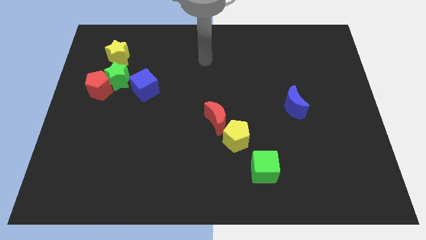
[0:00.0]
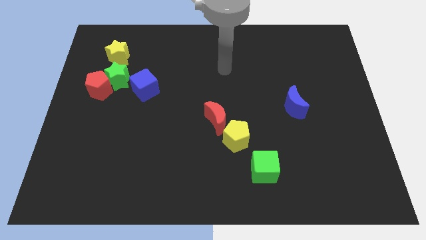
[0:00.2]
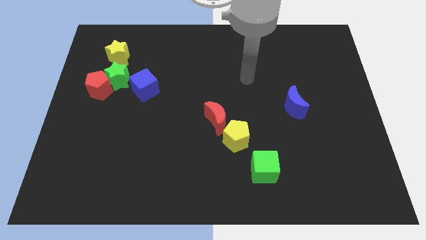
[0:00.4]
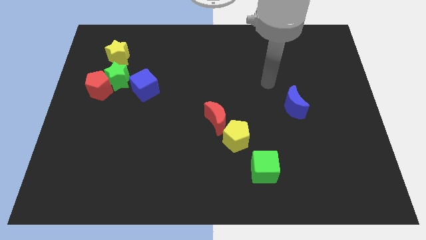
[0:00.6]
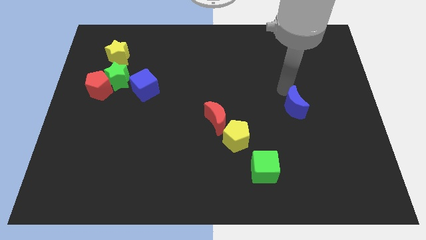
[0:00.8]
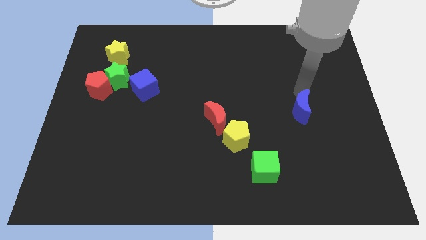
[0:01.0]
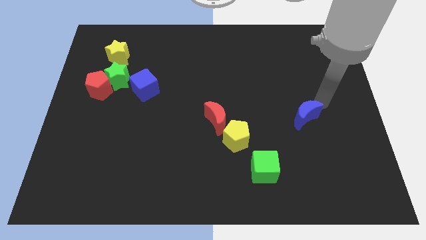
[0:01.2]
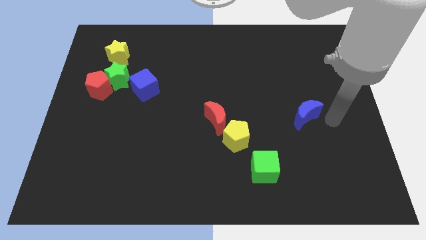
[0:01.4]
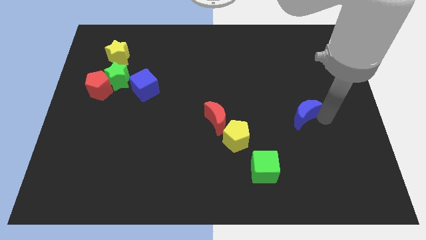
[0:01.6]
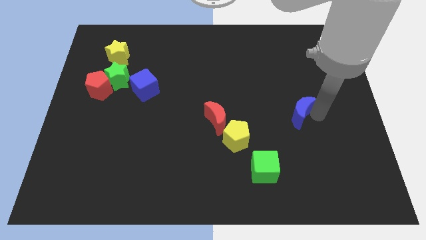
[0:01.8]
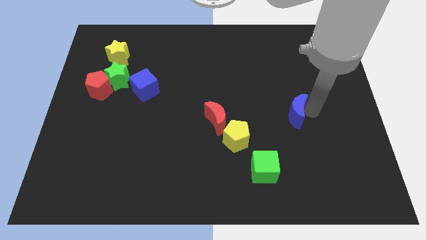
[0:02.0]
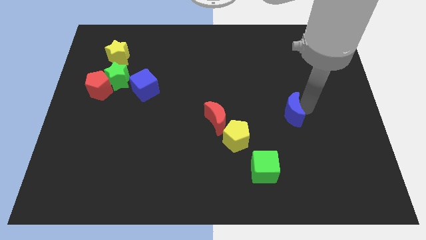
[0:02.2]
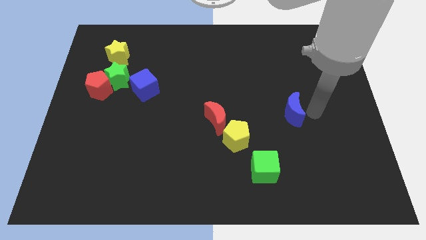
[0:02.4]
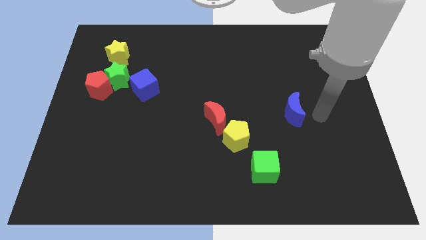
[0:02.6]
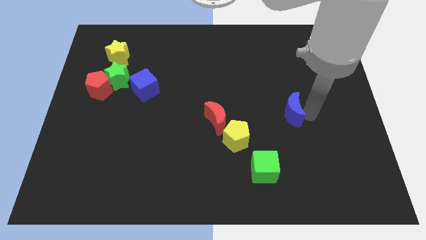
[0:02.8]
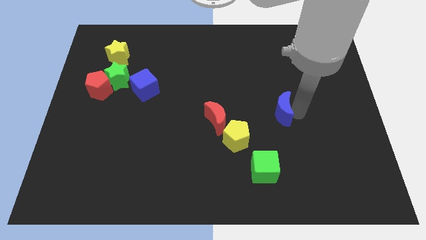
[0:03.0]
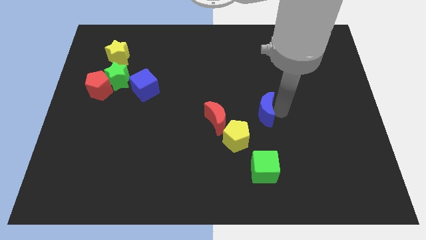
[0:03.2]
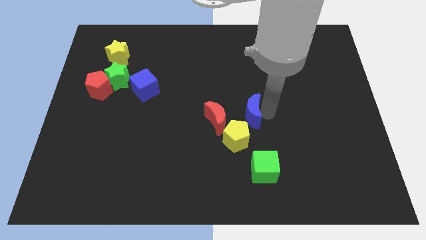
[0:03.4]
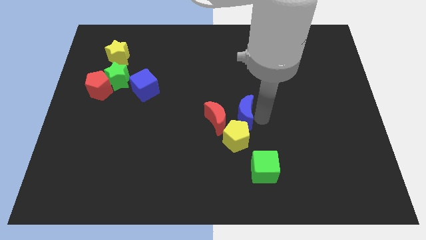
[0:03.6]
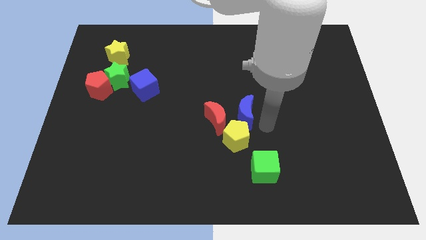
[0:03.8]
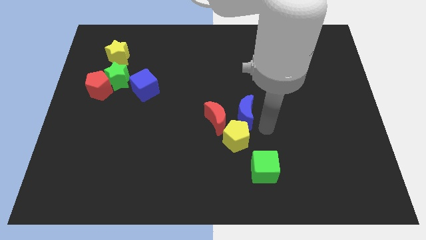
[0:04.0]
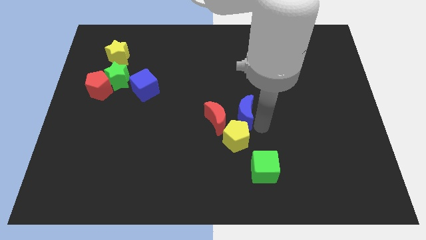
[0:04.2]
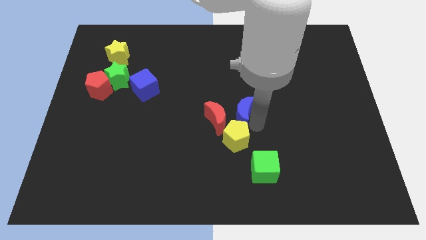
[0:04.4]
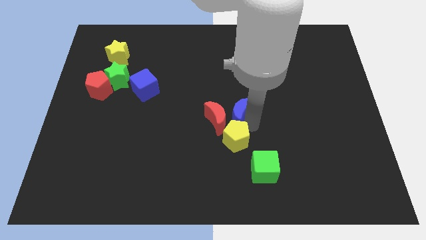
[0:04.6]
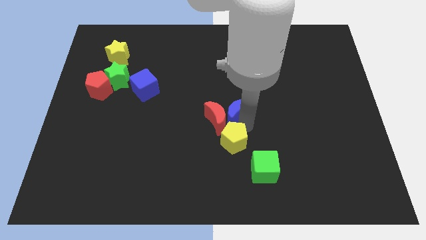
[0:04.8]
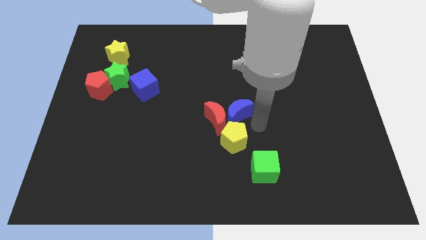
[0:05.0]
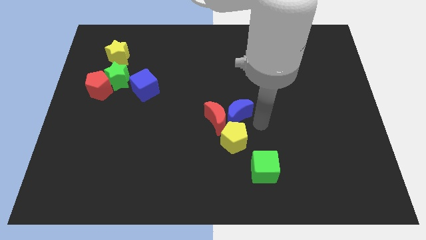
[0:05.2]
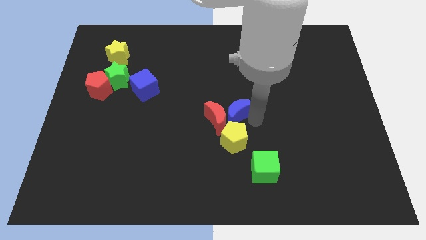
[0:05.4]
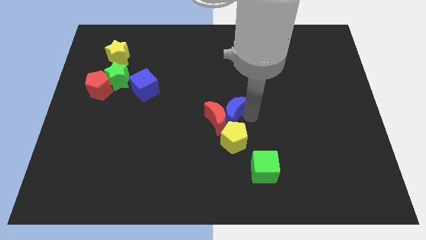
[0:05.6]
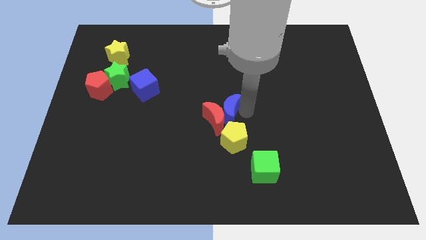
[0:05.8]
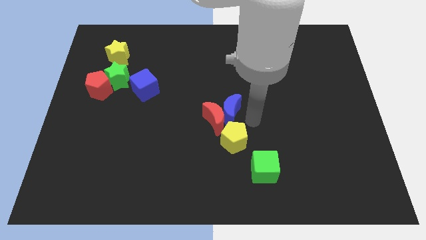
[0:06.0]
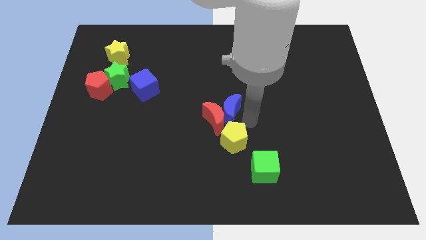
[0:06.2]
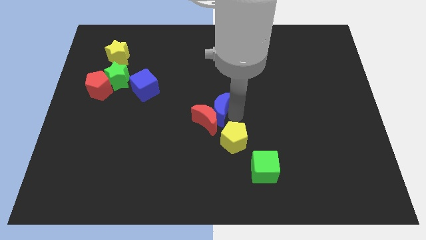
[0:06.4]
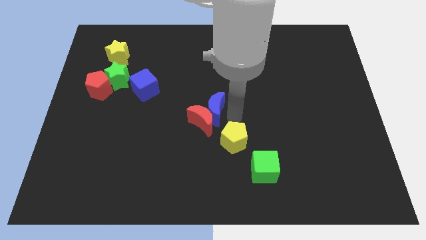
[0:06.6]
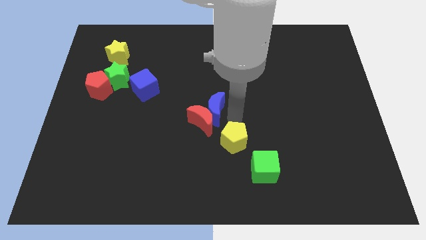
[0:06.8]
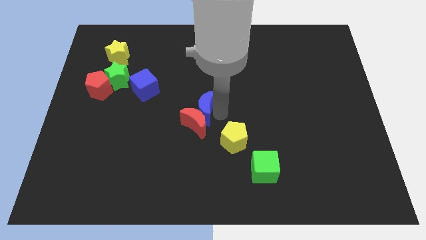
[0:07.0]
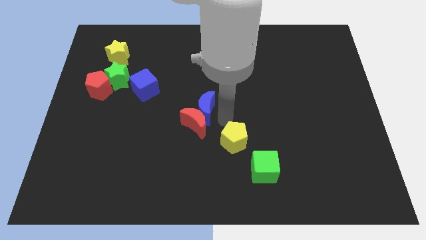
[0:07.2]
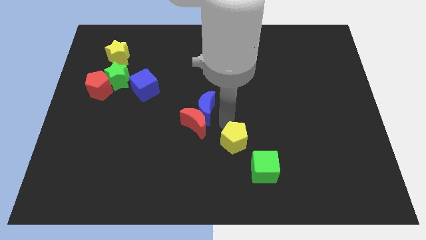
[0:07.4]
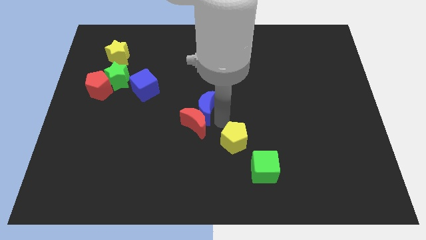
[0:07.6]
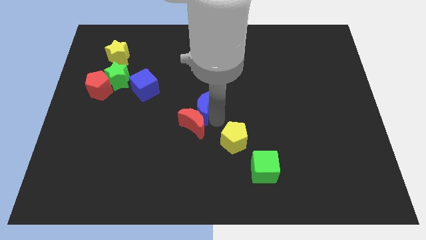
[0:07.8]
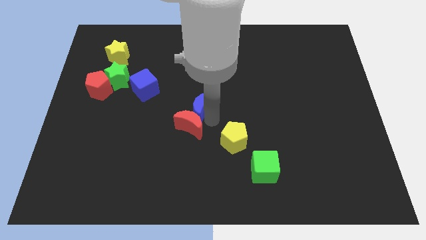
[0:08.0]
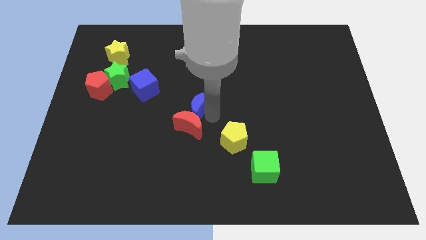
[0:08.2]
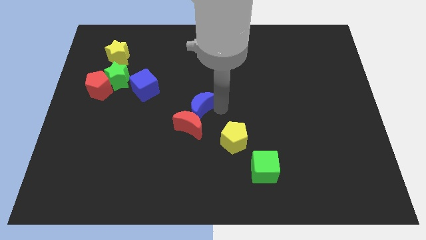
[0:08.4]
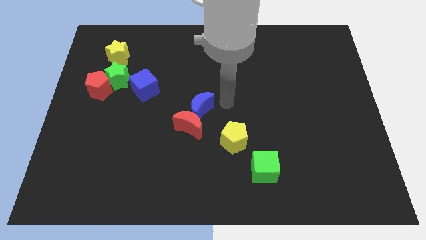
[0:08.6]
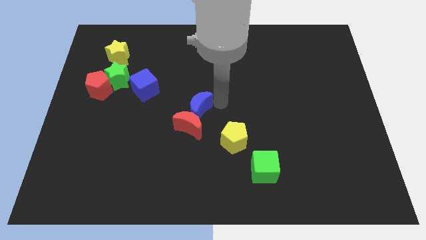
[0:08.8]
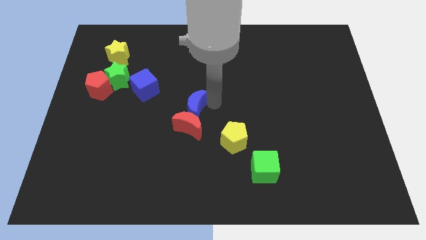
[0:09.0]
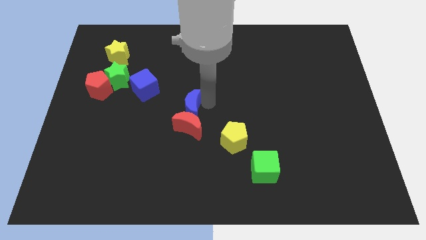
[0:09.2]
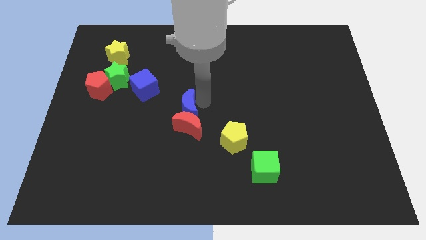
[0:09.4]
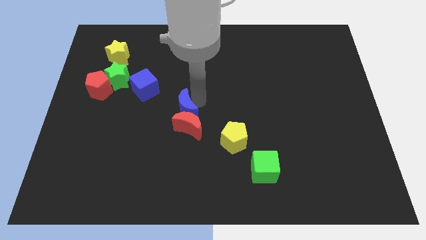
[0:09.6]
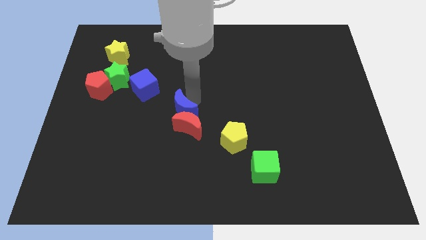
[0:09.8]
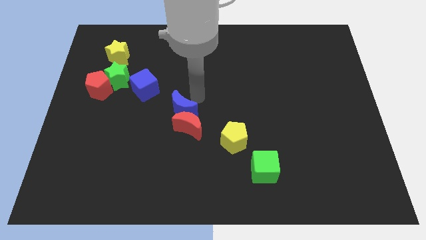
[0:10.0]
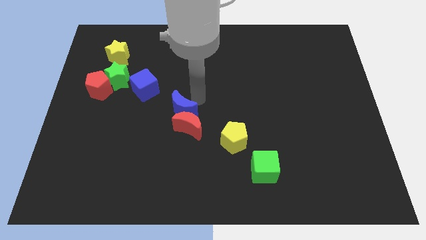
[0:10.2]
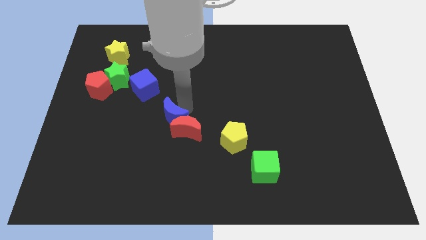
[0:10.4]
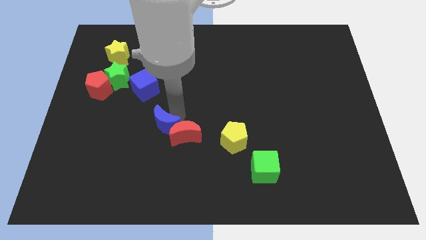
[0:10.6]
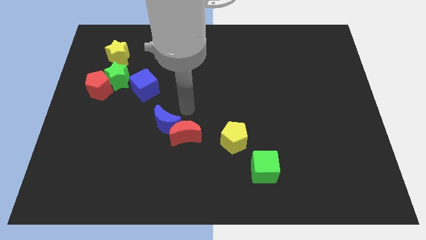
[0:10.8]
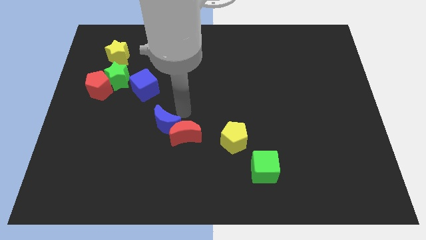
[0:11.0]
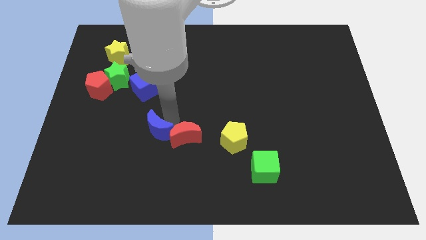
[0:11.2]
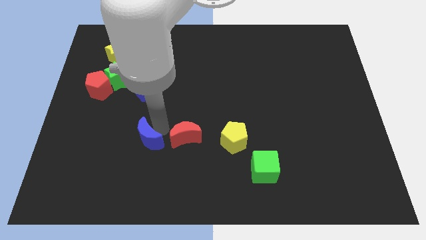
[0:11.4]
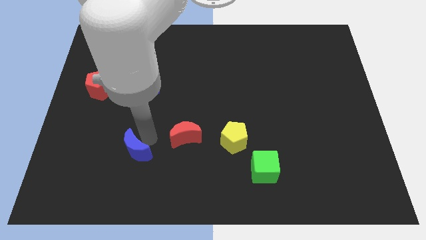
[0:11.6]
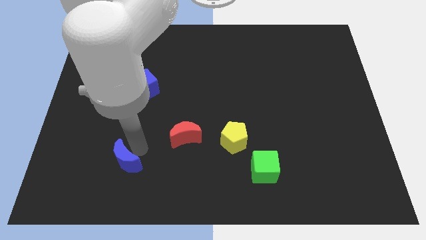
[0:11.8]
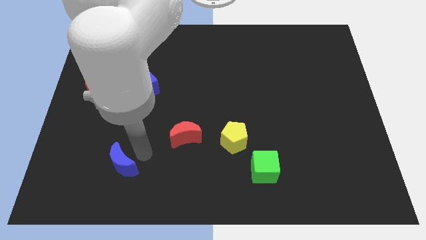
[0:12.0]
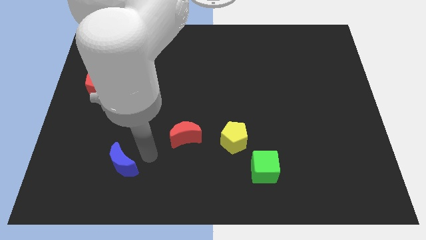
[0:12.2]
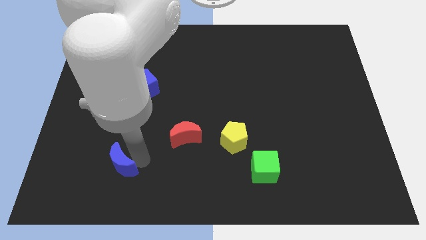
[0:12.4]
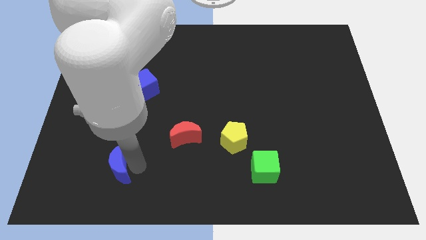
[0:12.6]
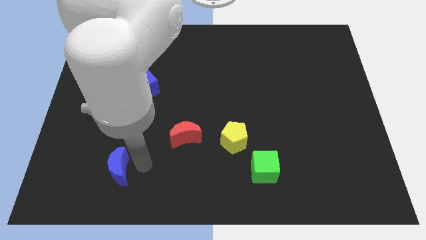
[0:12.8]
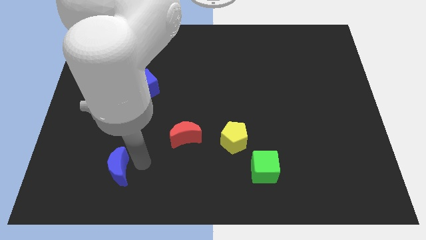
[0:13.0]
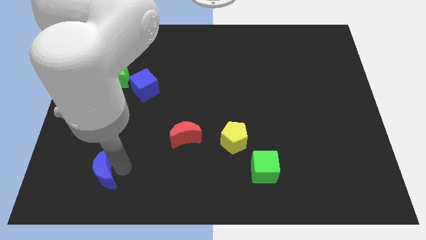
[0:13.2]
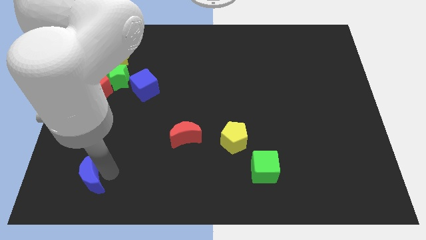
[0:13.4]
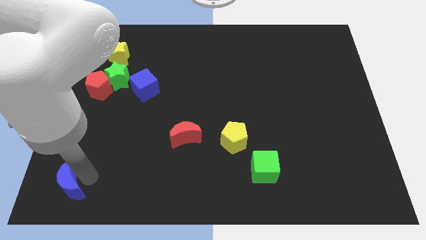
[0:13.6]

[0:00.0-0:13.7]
put the blue moon to the lower left corner
